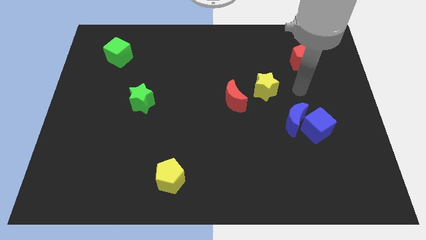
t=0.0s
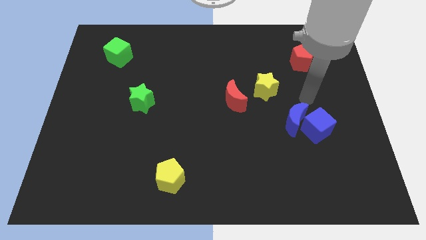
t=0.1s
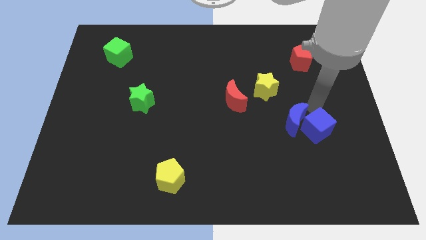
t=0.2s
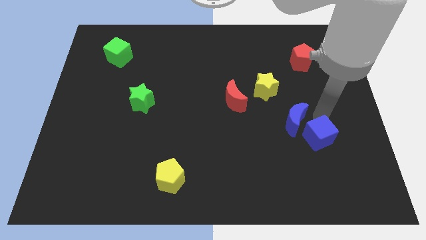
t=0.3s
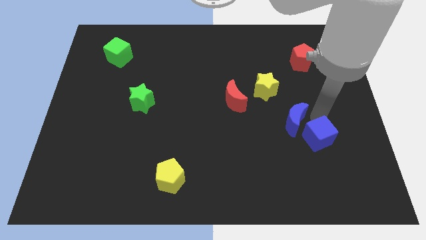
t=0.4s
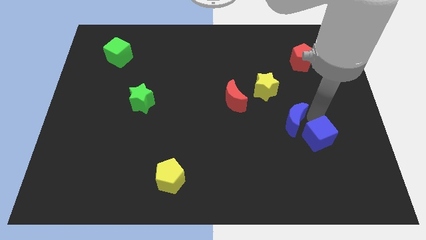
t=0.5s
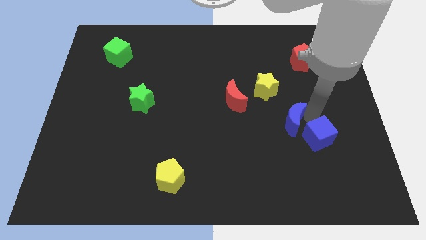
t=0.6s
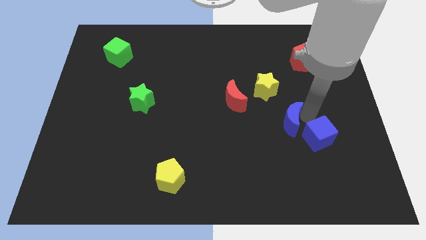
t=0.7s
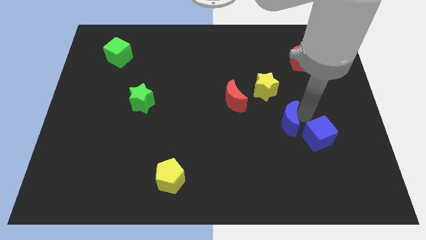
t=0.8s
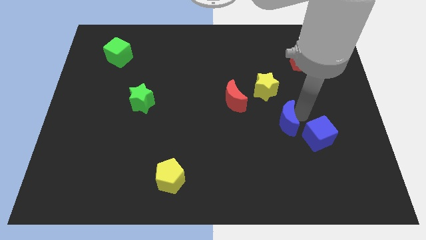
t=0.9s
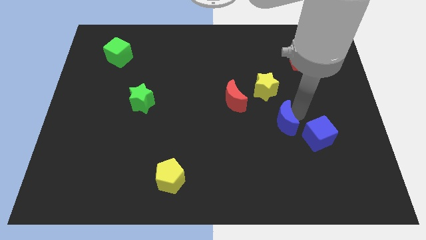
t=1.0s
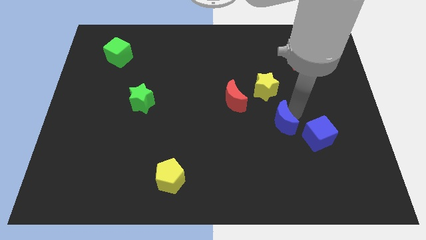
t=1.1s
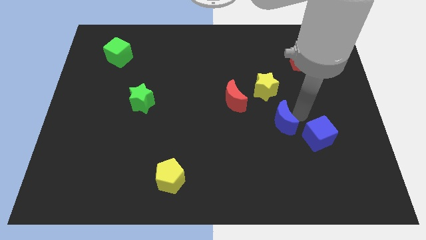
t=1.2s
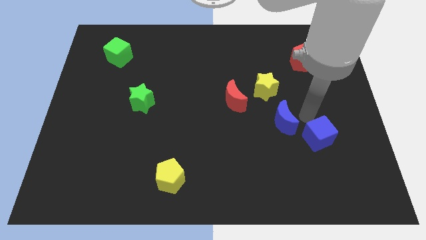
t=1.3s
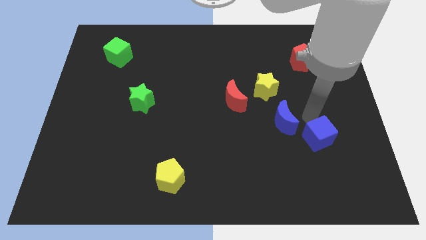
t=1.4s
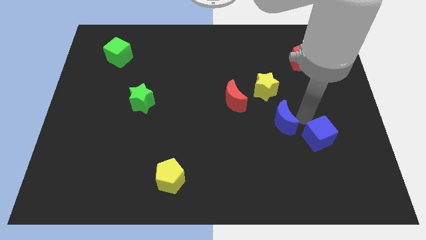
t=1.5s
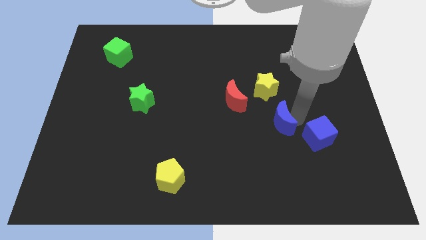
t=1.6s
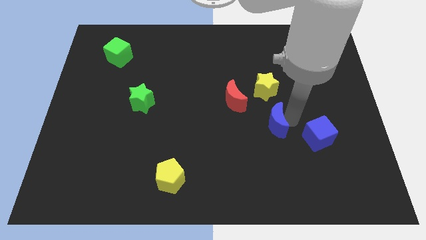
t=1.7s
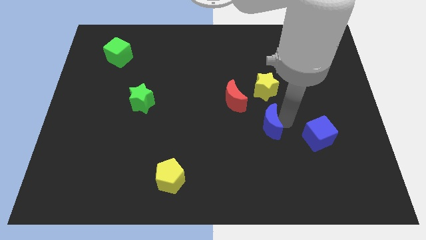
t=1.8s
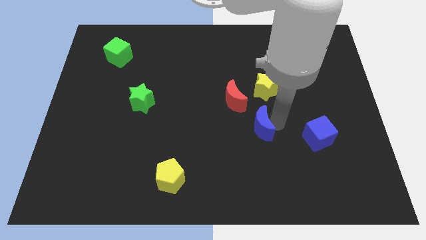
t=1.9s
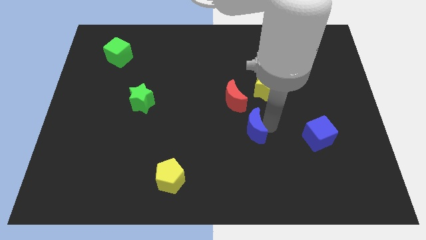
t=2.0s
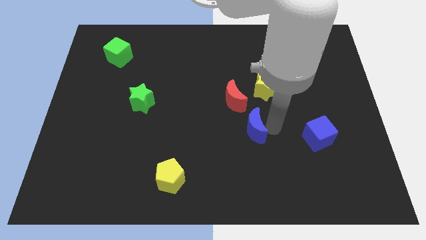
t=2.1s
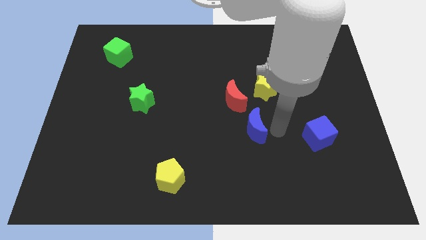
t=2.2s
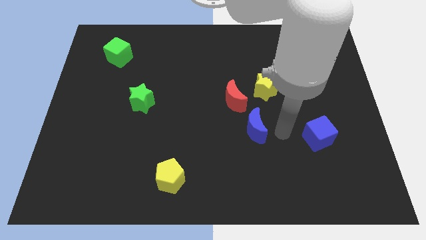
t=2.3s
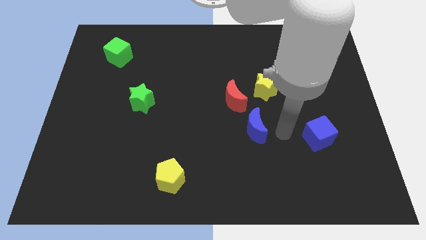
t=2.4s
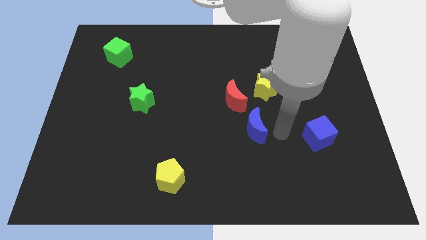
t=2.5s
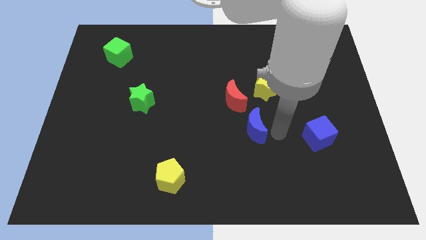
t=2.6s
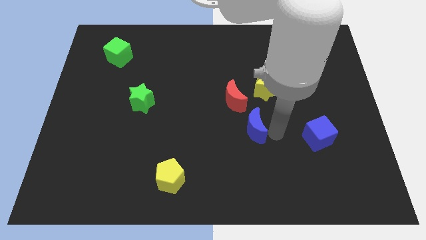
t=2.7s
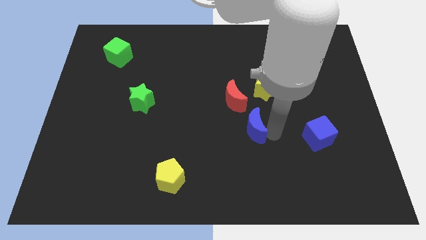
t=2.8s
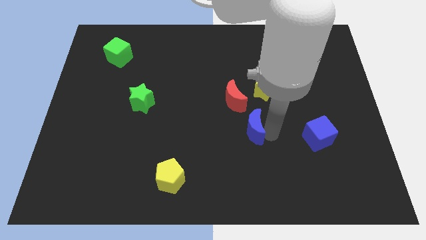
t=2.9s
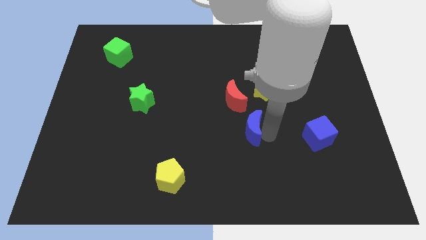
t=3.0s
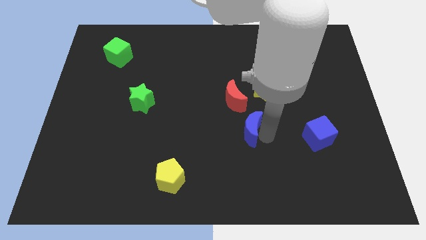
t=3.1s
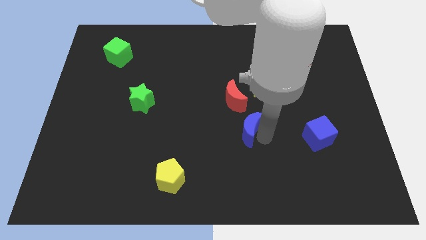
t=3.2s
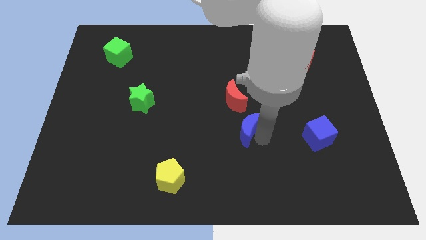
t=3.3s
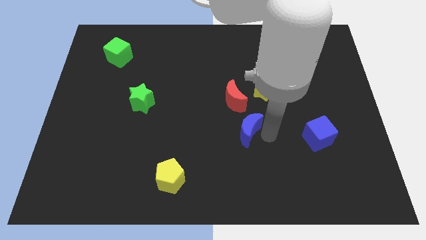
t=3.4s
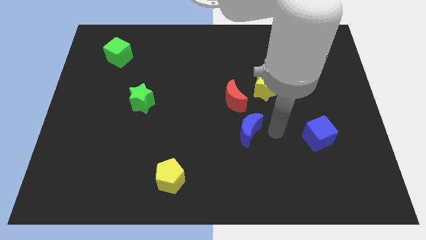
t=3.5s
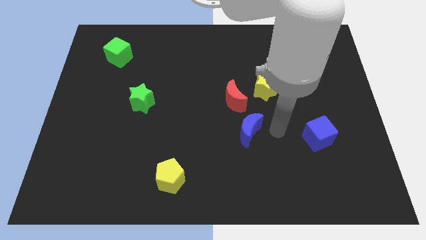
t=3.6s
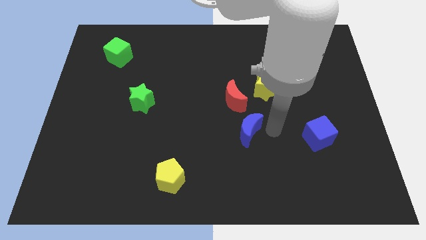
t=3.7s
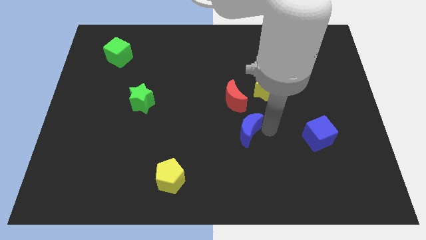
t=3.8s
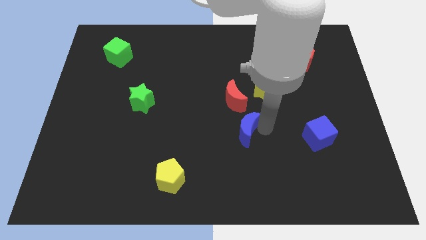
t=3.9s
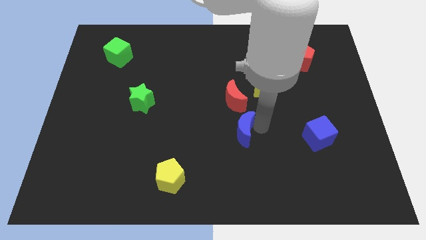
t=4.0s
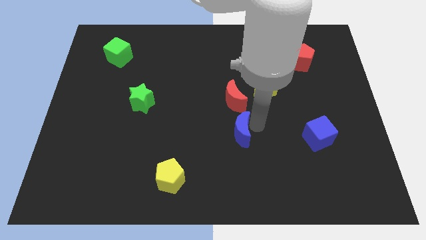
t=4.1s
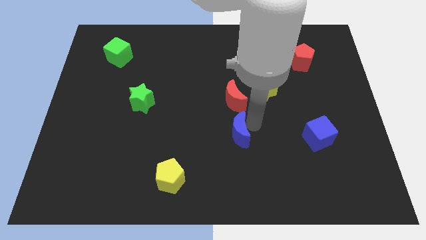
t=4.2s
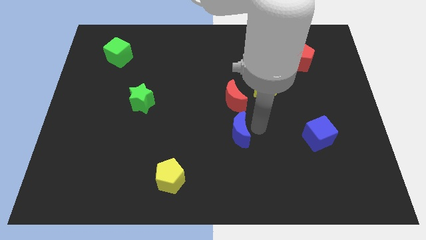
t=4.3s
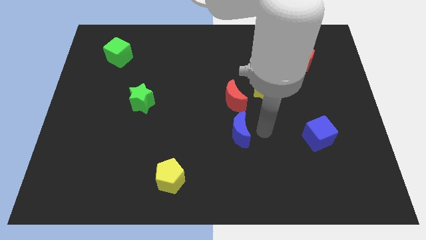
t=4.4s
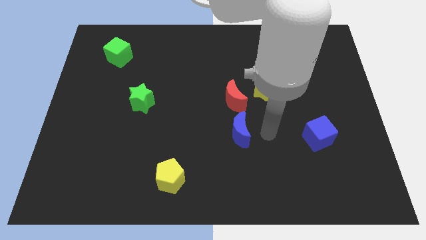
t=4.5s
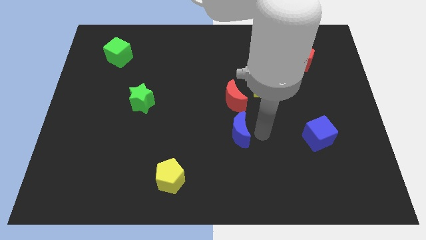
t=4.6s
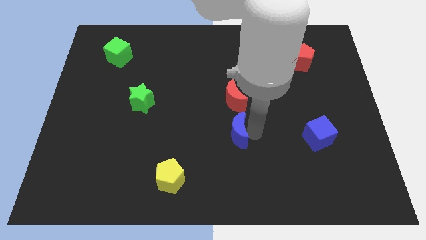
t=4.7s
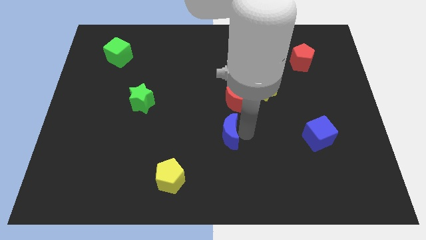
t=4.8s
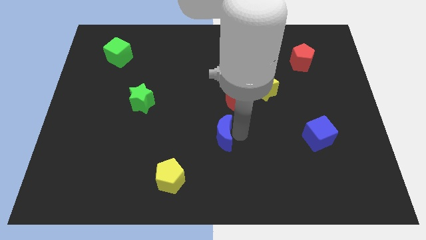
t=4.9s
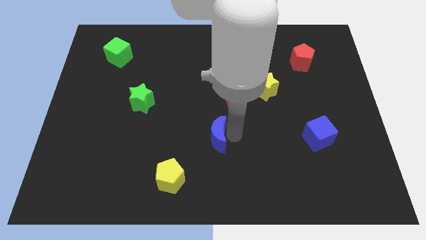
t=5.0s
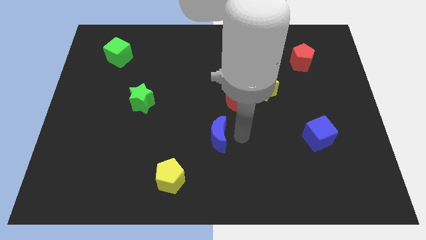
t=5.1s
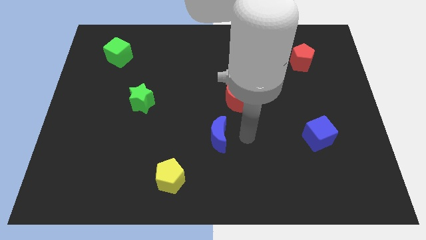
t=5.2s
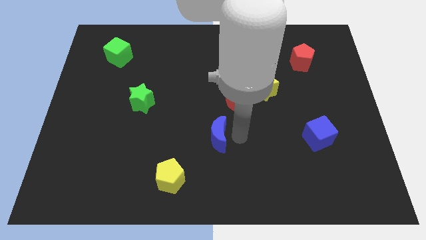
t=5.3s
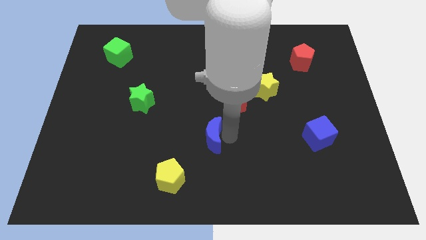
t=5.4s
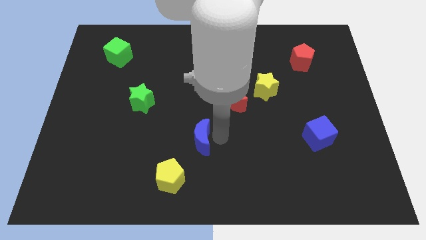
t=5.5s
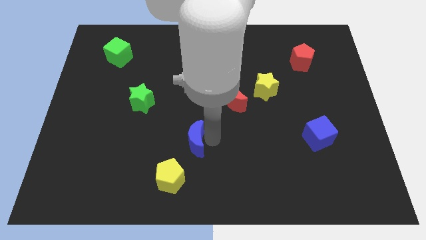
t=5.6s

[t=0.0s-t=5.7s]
move the blue moon to the top of the yellow pentagon

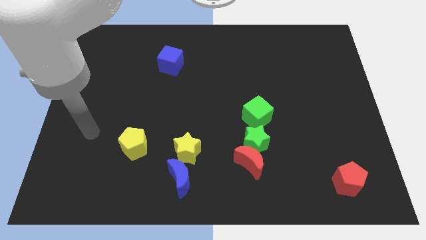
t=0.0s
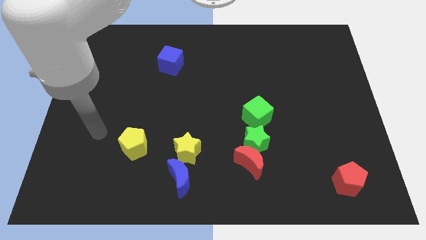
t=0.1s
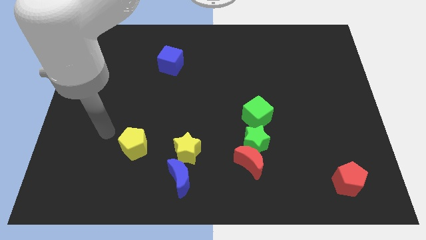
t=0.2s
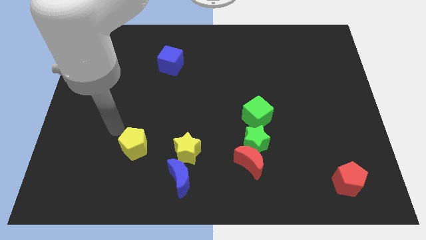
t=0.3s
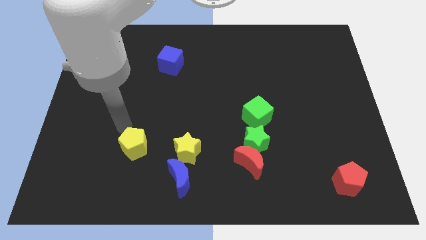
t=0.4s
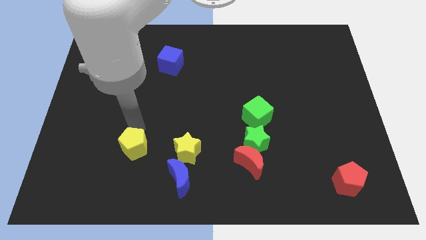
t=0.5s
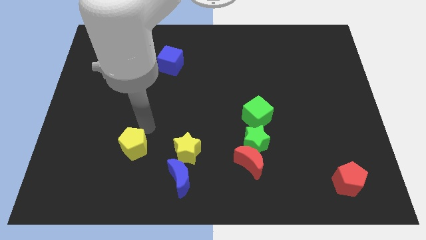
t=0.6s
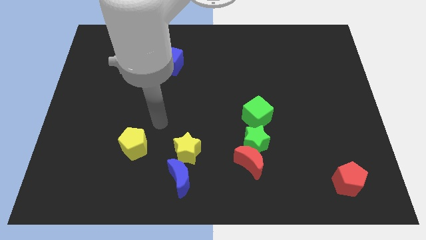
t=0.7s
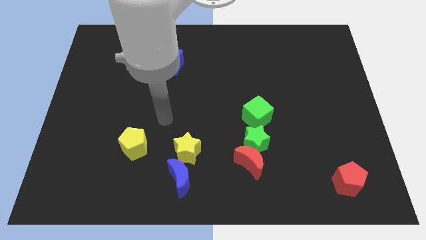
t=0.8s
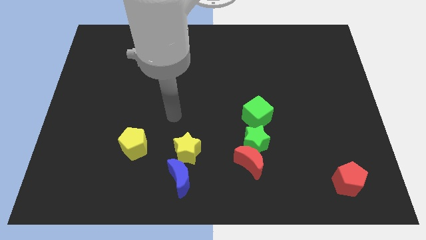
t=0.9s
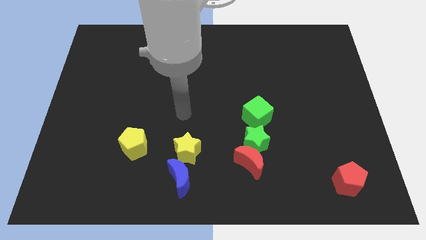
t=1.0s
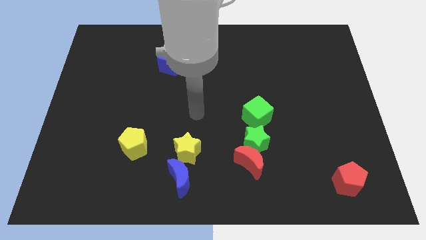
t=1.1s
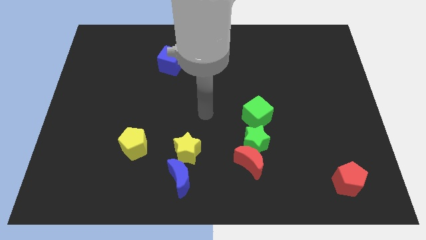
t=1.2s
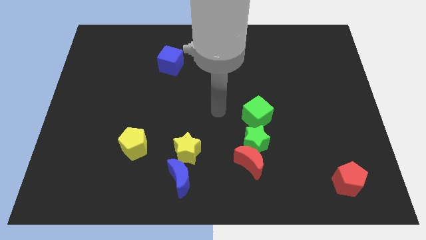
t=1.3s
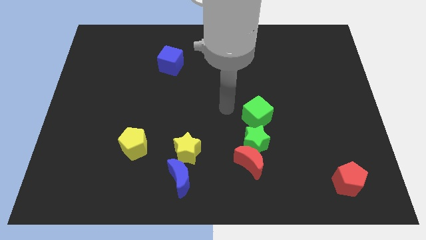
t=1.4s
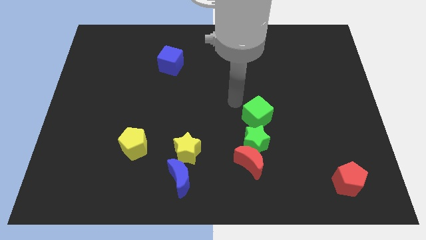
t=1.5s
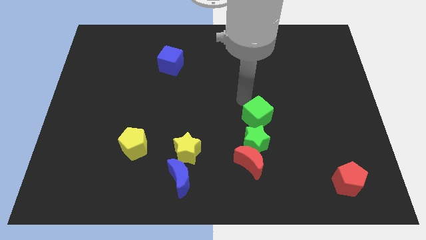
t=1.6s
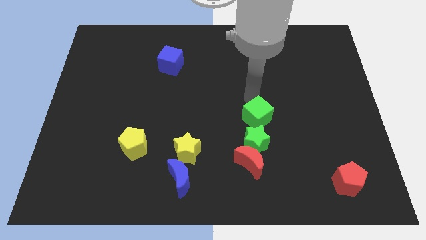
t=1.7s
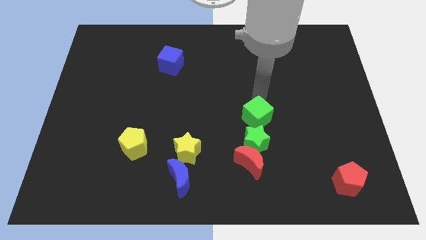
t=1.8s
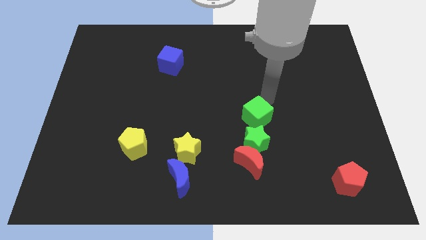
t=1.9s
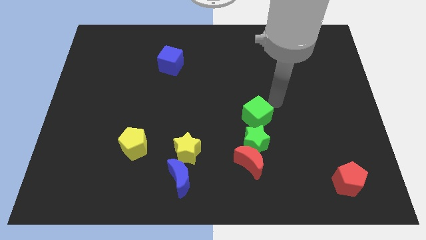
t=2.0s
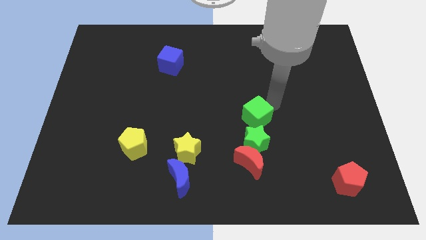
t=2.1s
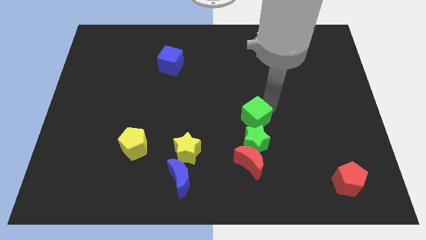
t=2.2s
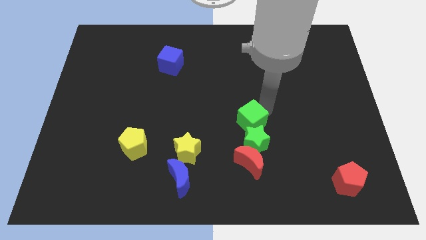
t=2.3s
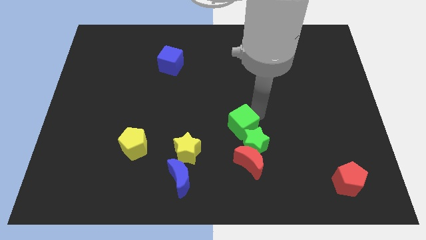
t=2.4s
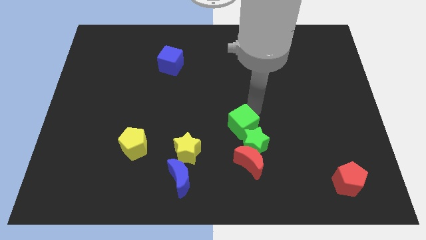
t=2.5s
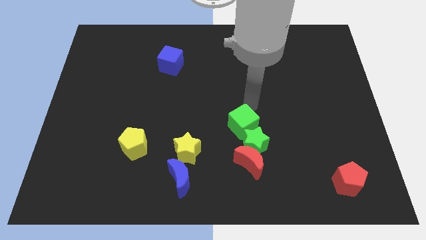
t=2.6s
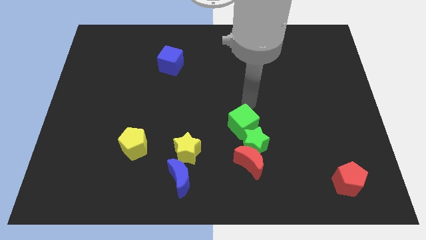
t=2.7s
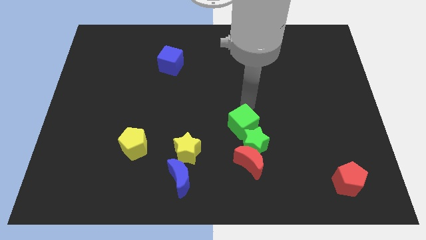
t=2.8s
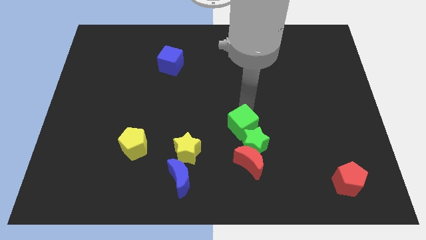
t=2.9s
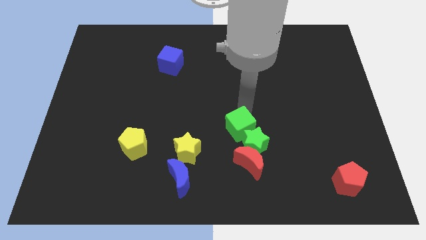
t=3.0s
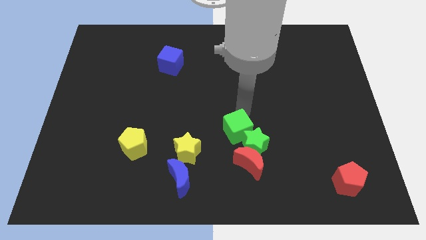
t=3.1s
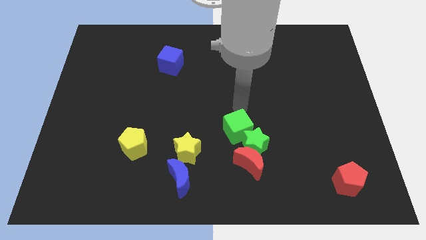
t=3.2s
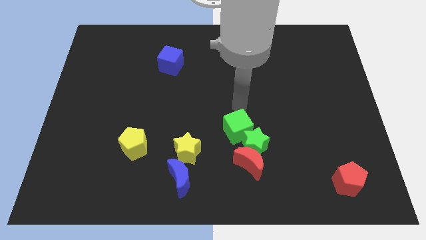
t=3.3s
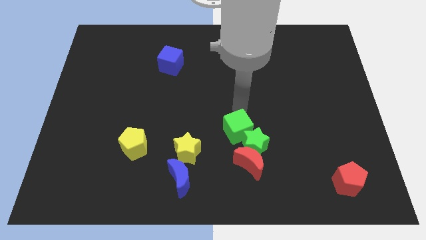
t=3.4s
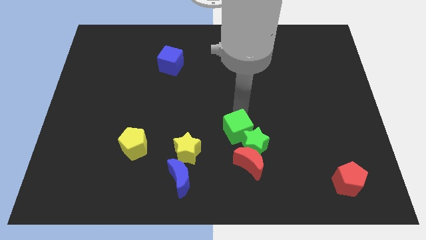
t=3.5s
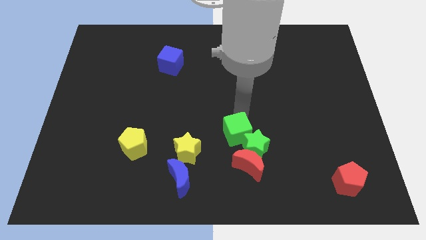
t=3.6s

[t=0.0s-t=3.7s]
push the green cube to the right of the yellow star
